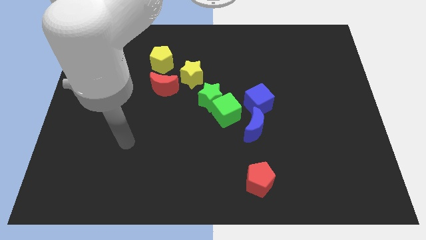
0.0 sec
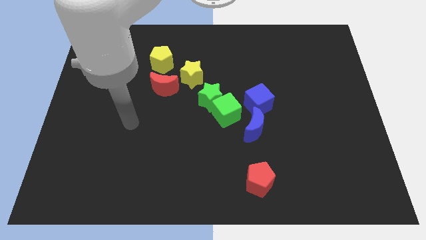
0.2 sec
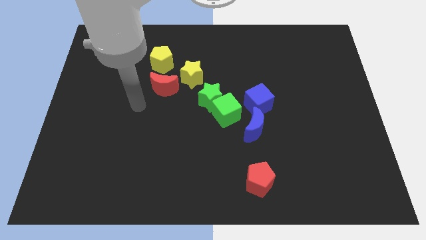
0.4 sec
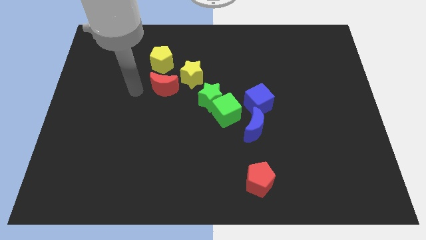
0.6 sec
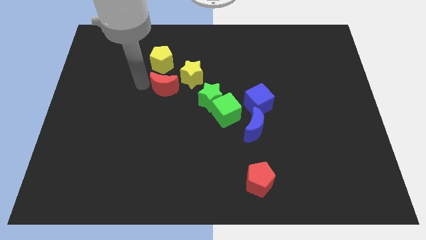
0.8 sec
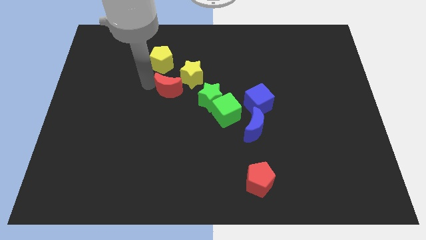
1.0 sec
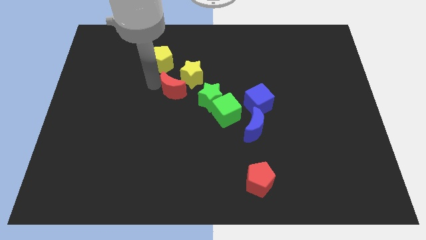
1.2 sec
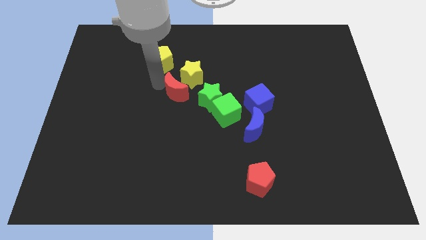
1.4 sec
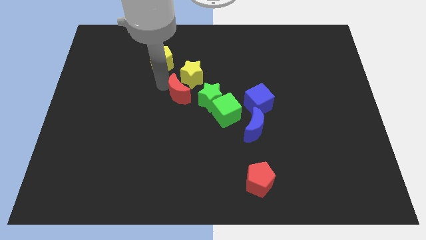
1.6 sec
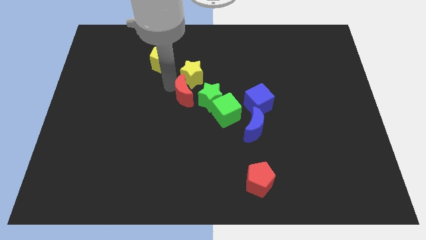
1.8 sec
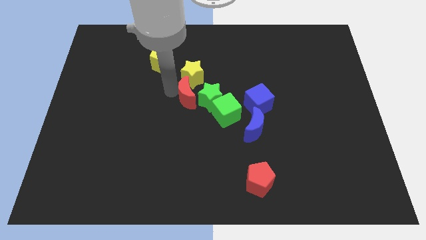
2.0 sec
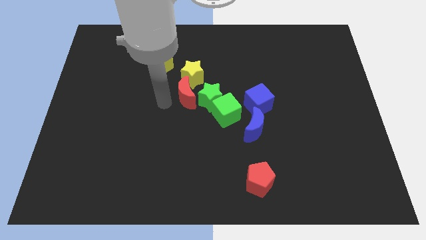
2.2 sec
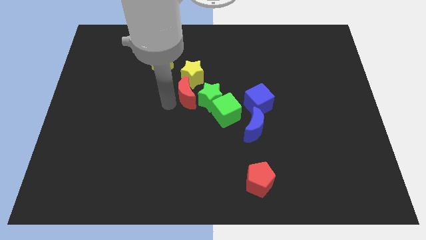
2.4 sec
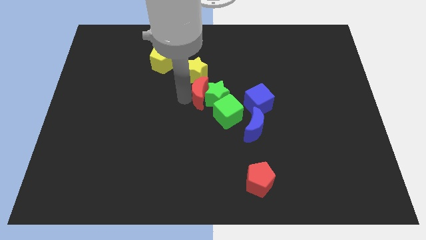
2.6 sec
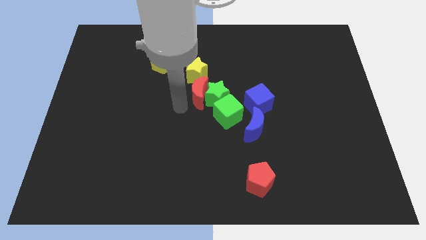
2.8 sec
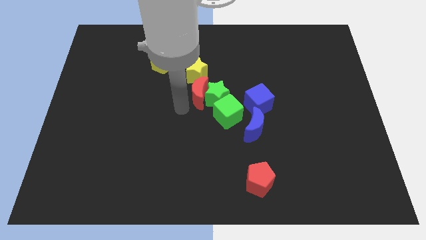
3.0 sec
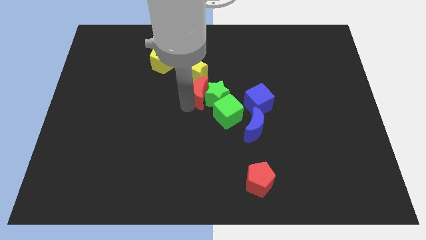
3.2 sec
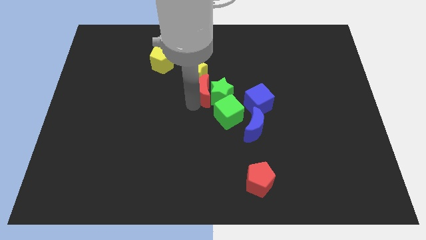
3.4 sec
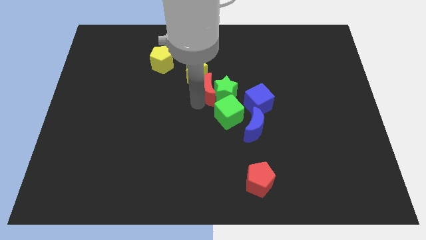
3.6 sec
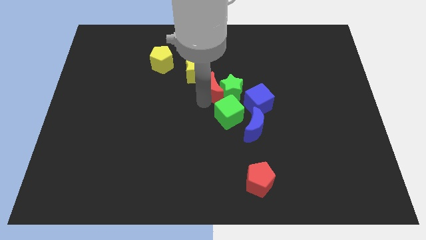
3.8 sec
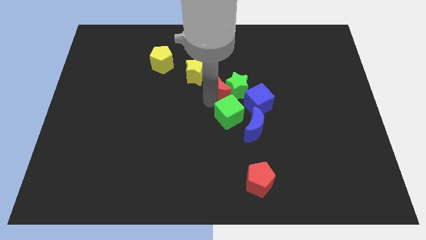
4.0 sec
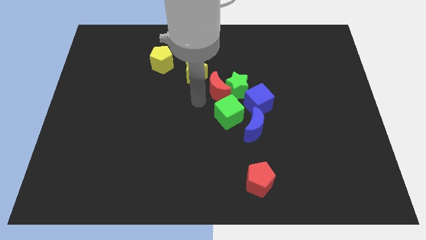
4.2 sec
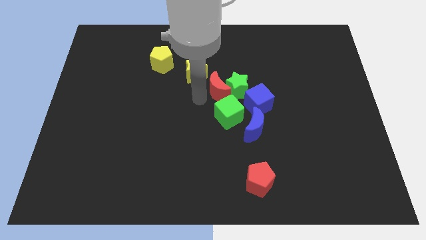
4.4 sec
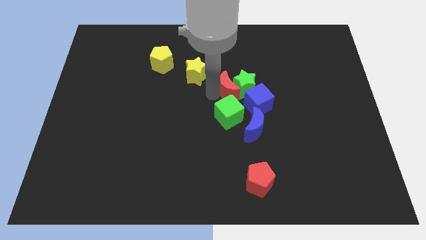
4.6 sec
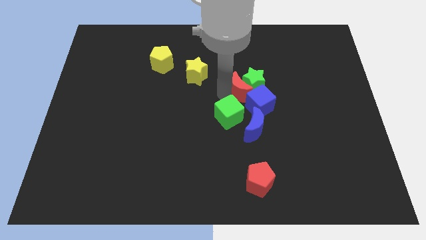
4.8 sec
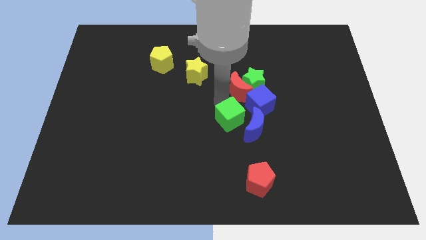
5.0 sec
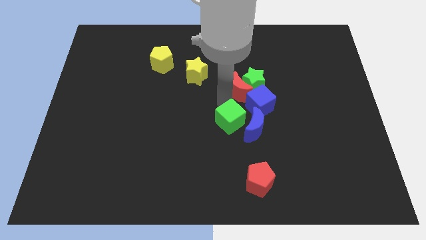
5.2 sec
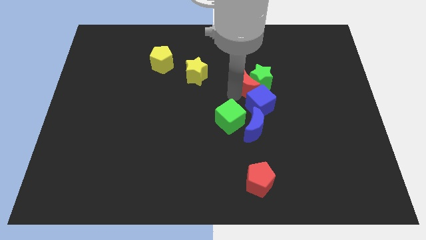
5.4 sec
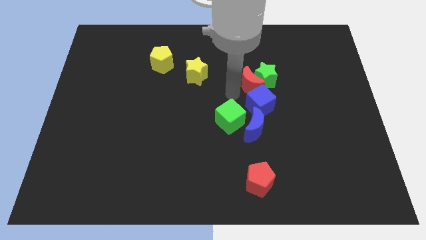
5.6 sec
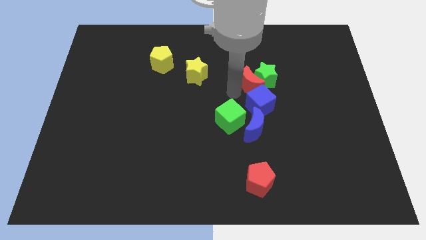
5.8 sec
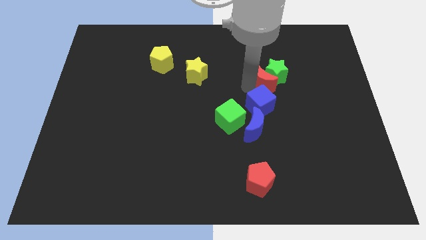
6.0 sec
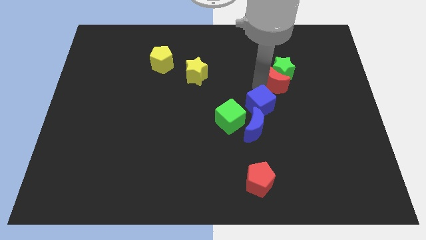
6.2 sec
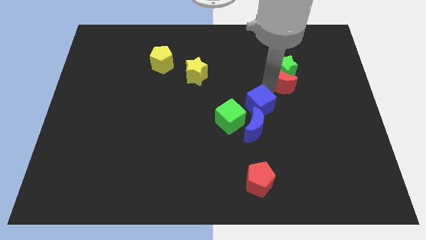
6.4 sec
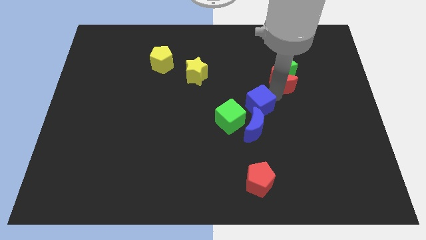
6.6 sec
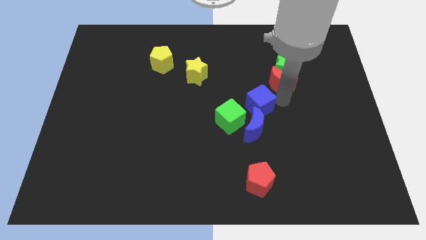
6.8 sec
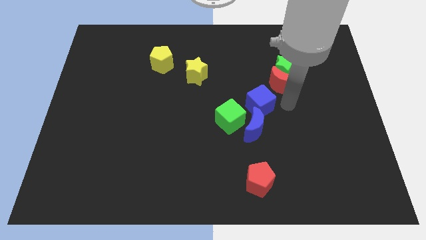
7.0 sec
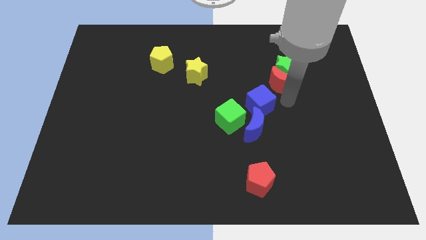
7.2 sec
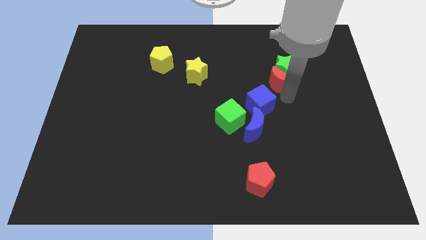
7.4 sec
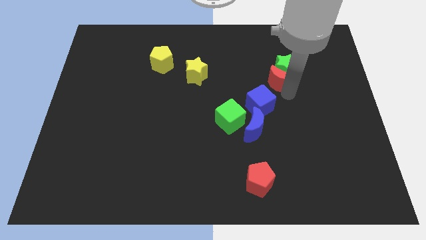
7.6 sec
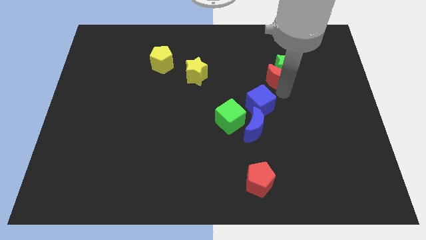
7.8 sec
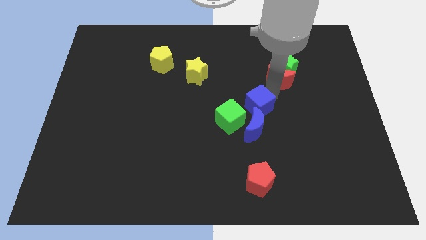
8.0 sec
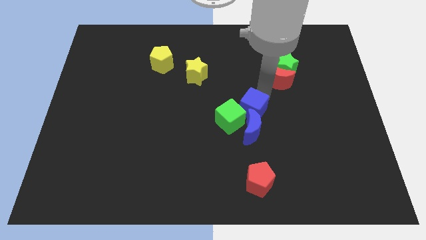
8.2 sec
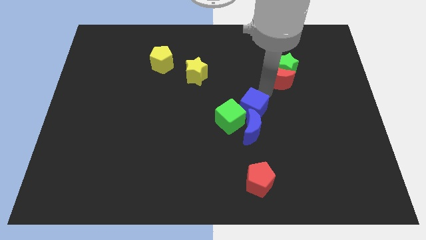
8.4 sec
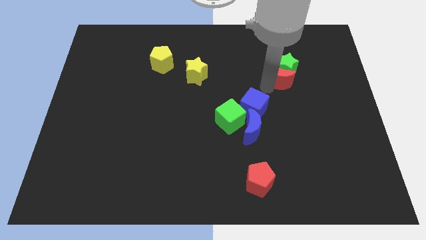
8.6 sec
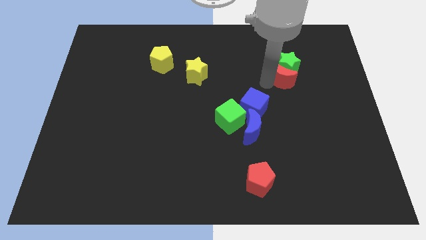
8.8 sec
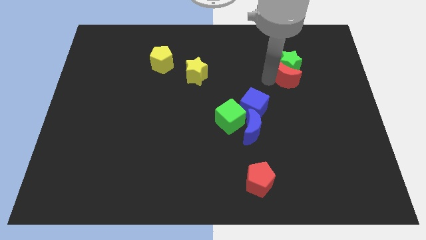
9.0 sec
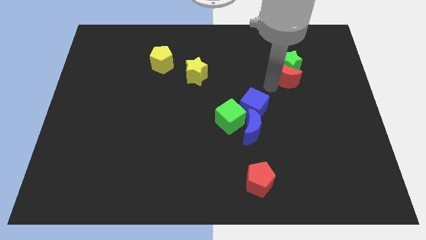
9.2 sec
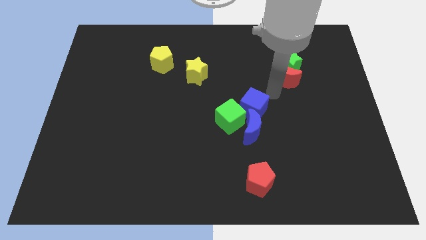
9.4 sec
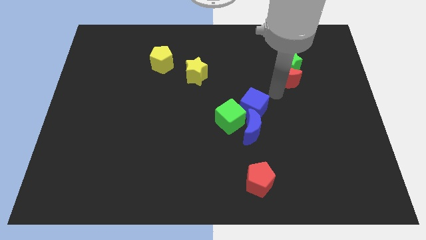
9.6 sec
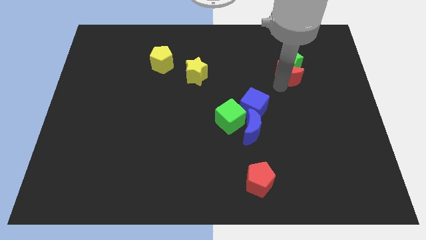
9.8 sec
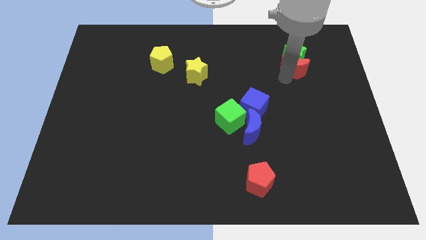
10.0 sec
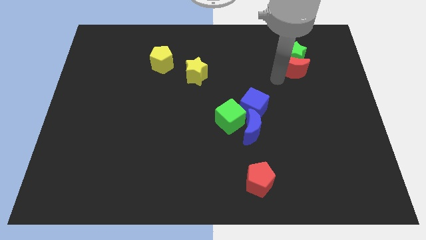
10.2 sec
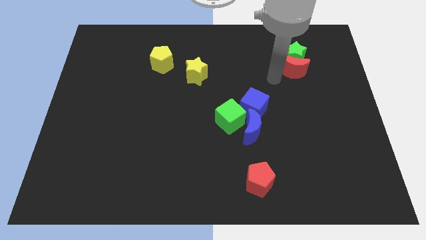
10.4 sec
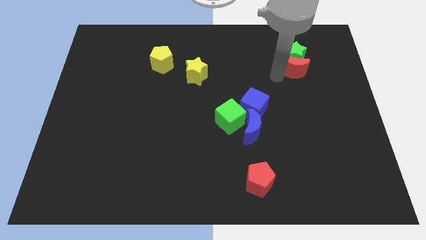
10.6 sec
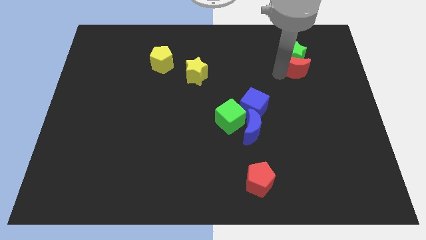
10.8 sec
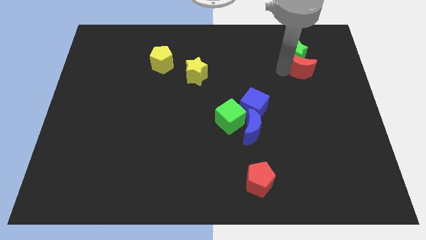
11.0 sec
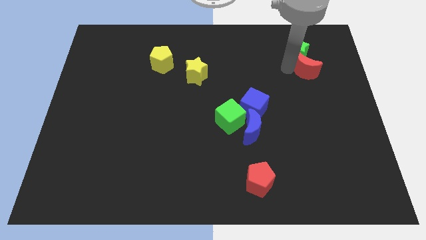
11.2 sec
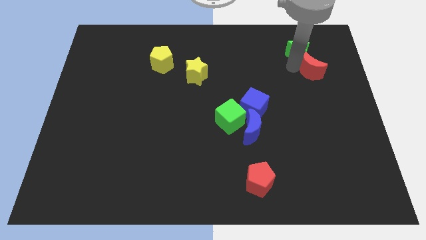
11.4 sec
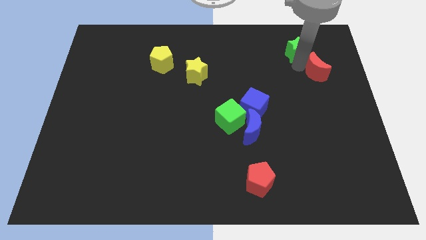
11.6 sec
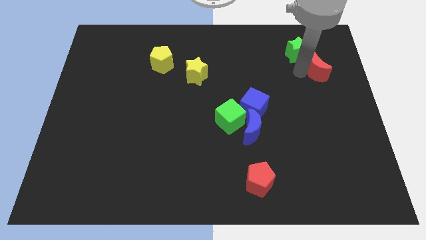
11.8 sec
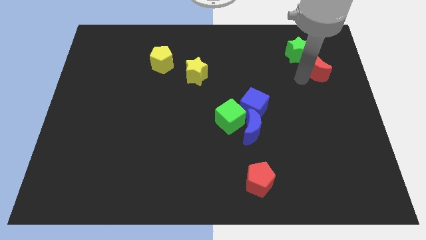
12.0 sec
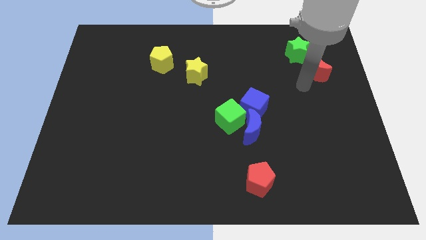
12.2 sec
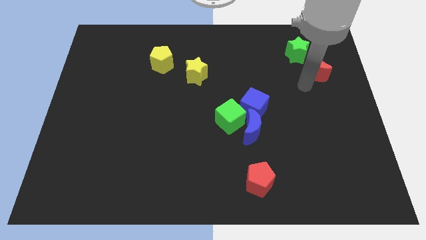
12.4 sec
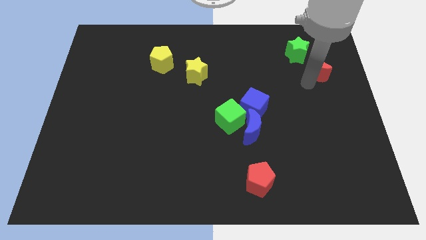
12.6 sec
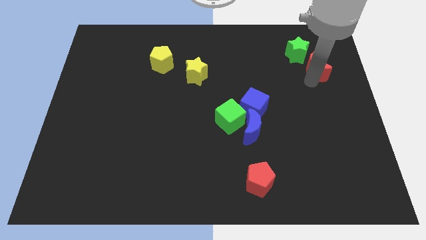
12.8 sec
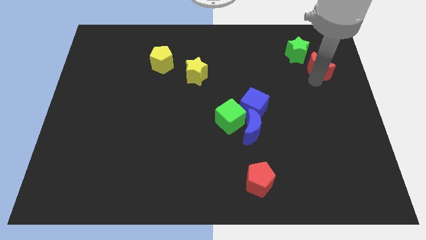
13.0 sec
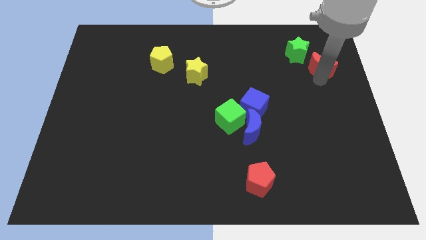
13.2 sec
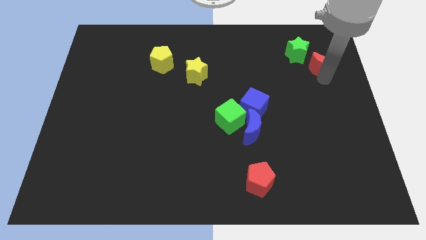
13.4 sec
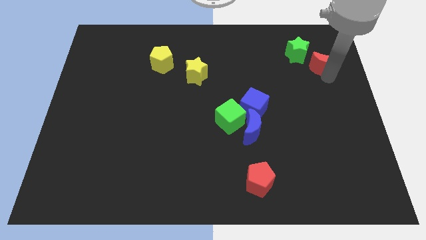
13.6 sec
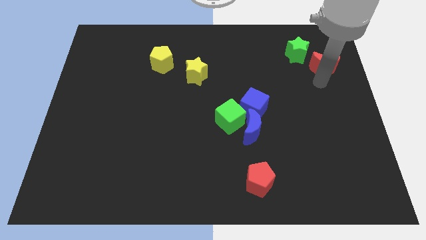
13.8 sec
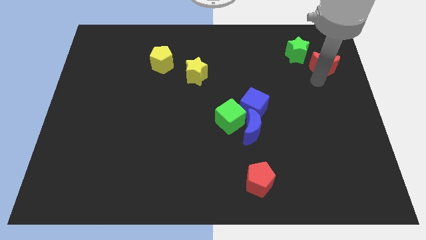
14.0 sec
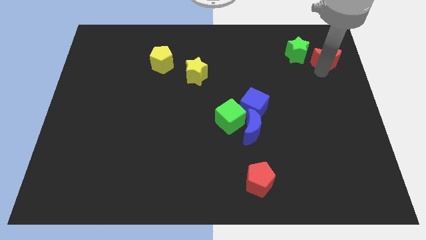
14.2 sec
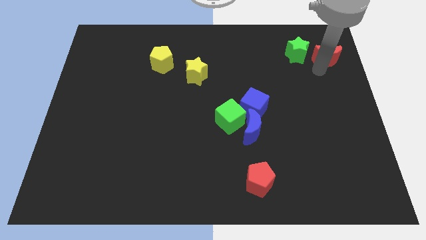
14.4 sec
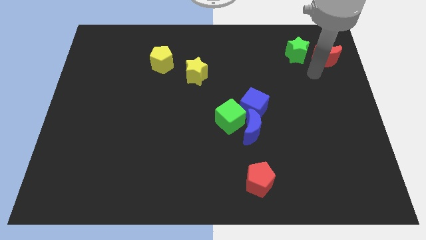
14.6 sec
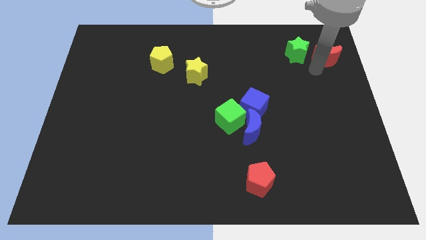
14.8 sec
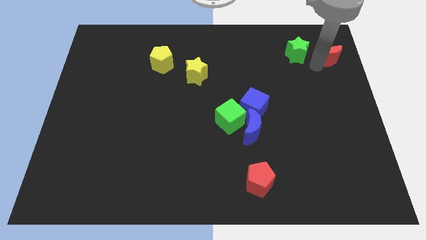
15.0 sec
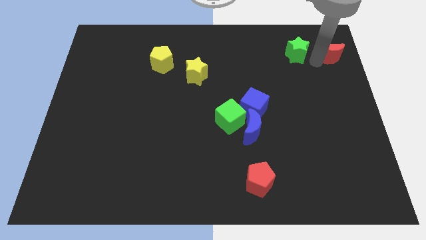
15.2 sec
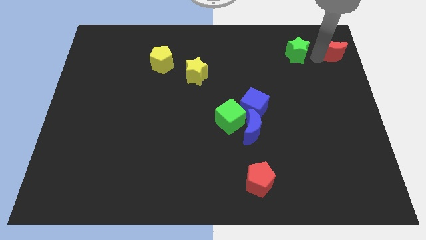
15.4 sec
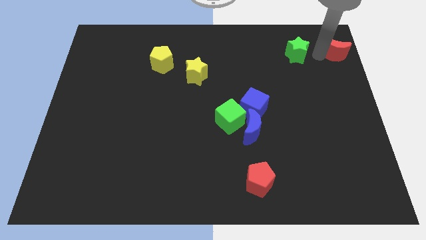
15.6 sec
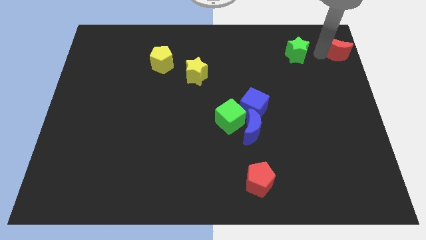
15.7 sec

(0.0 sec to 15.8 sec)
push the red moon to the top right corner

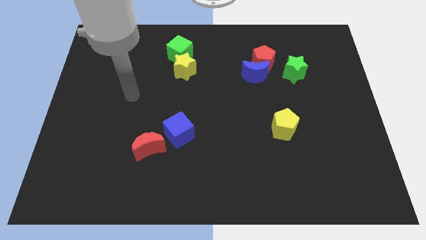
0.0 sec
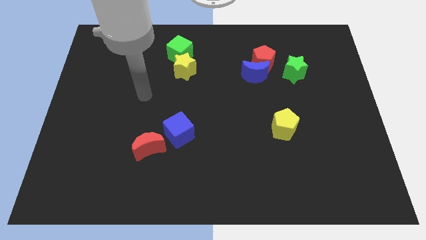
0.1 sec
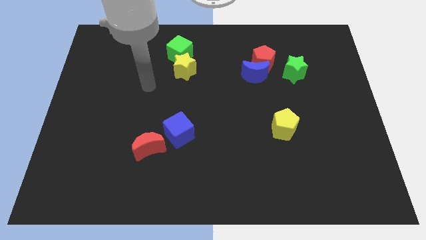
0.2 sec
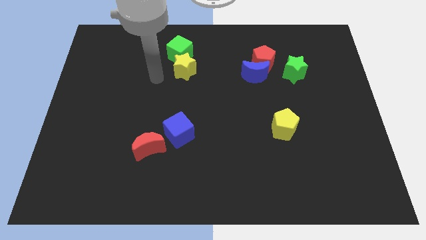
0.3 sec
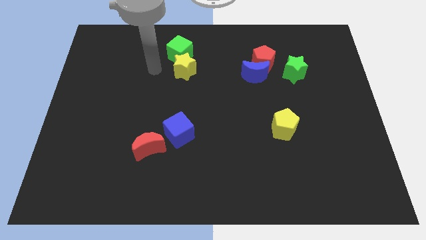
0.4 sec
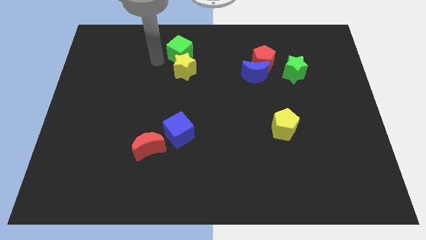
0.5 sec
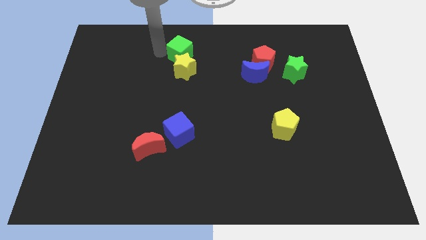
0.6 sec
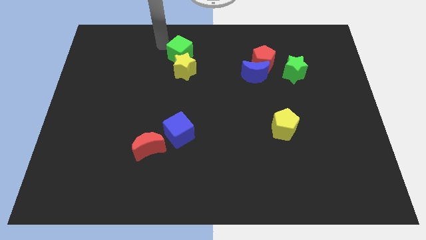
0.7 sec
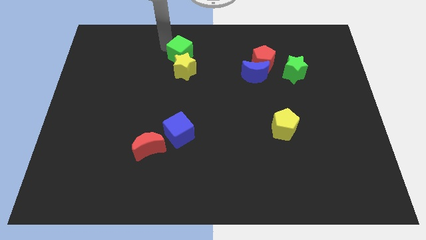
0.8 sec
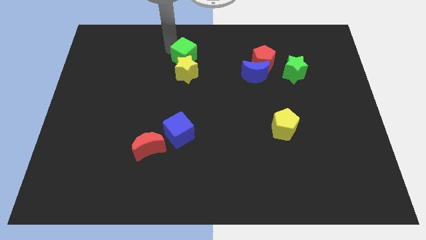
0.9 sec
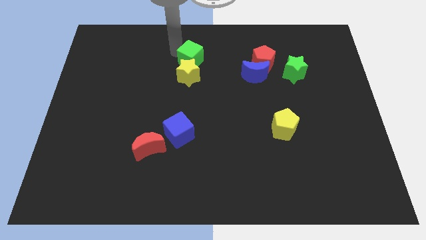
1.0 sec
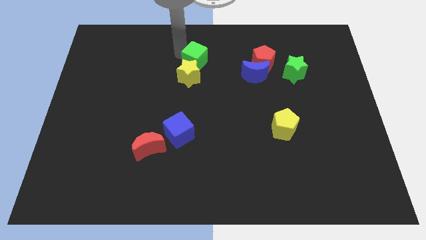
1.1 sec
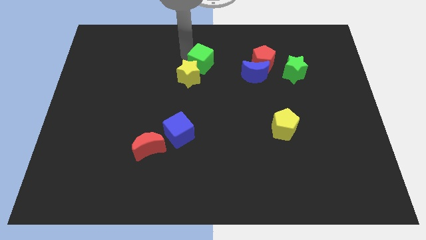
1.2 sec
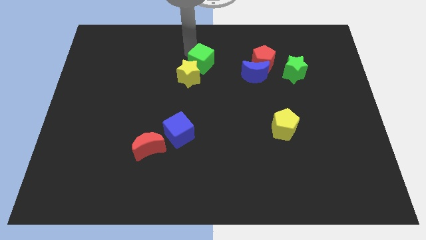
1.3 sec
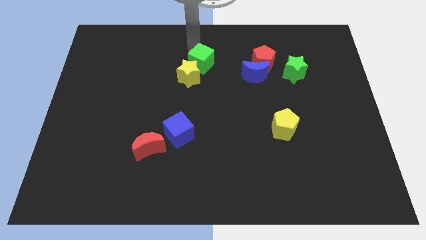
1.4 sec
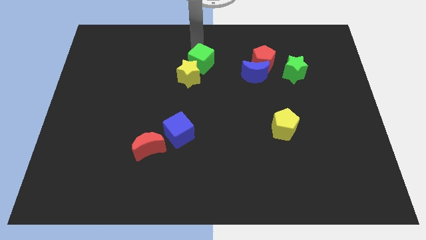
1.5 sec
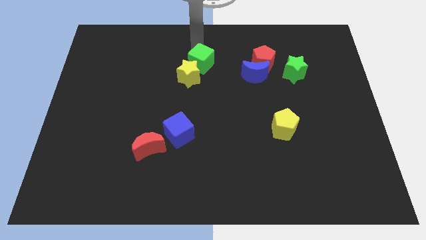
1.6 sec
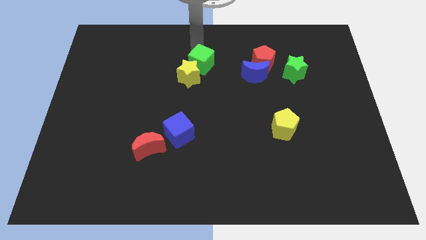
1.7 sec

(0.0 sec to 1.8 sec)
slide the green cube to the middle of the board
